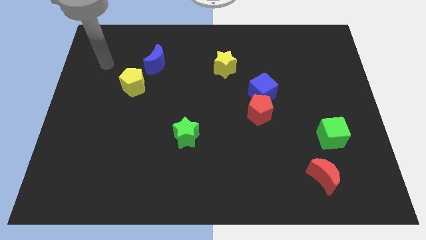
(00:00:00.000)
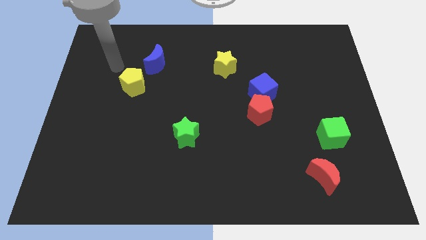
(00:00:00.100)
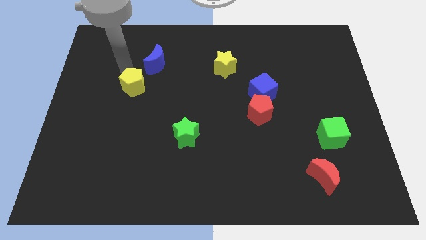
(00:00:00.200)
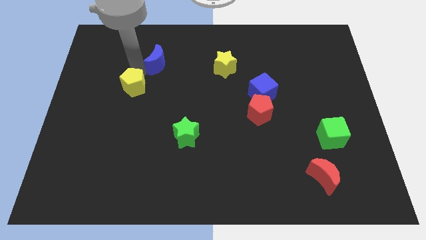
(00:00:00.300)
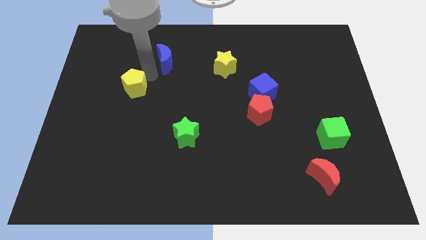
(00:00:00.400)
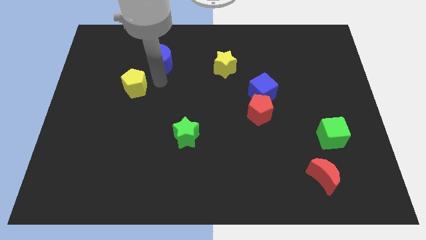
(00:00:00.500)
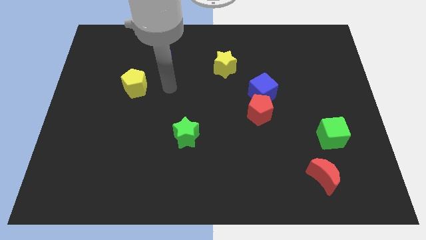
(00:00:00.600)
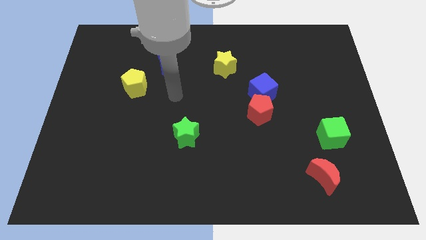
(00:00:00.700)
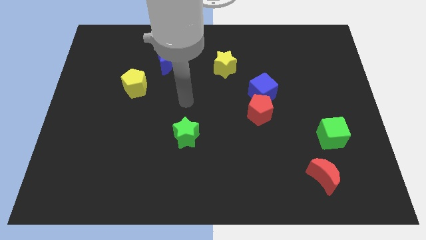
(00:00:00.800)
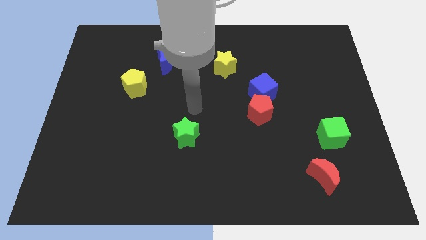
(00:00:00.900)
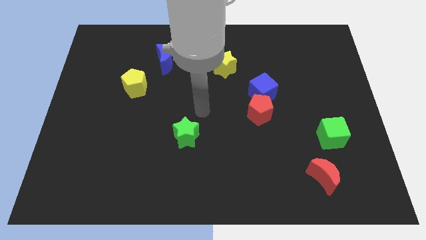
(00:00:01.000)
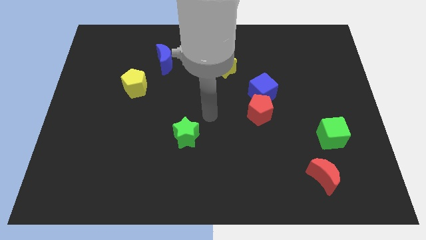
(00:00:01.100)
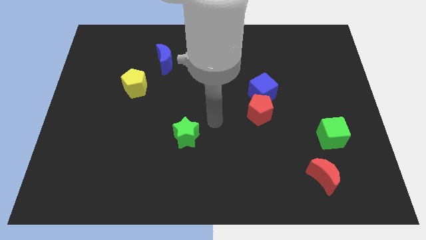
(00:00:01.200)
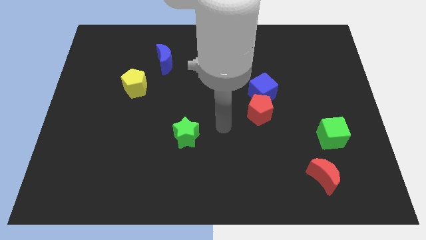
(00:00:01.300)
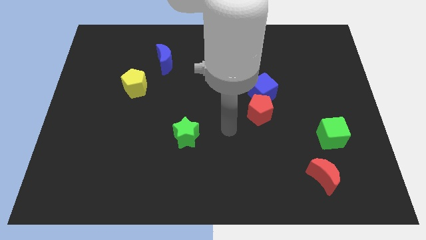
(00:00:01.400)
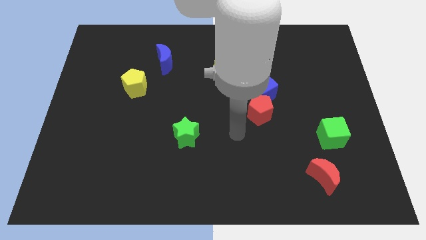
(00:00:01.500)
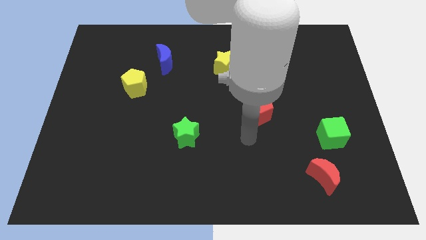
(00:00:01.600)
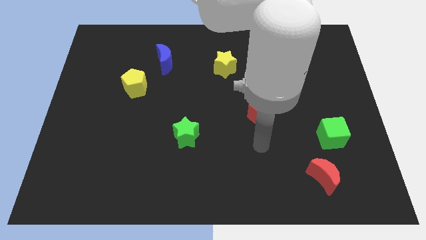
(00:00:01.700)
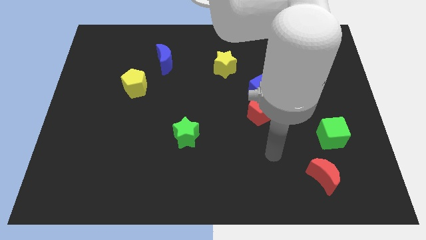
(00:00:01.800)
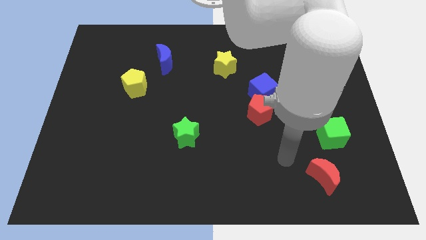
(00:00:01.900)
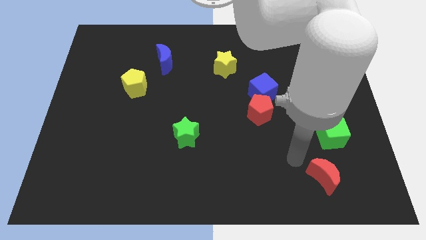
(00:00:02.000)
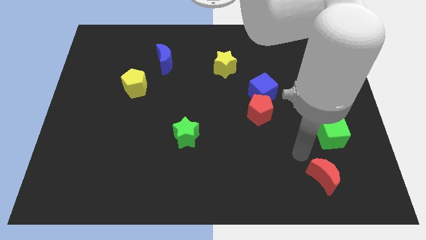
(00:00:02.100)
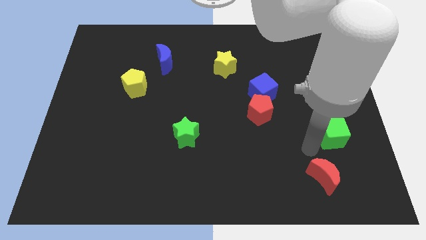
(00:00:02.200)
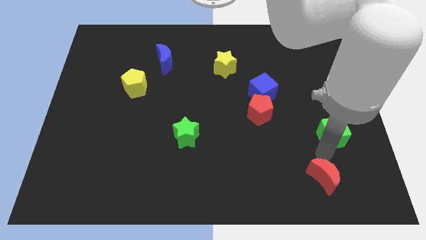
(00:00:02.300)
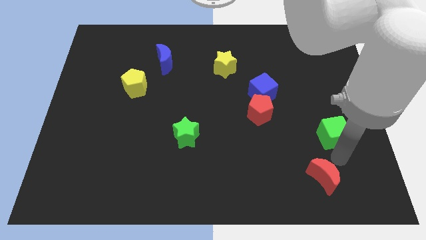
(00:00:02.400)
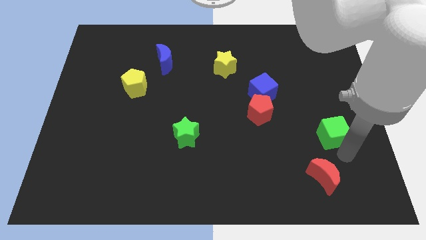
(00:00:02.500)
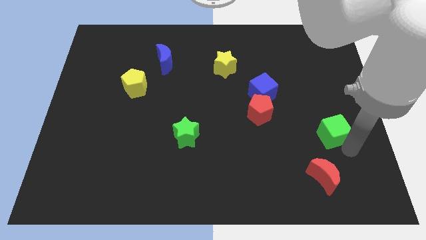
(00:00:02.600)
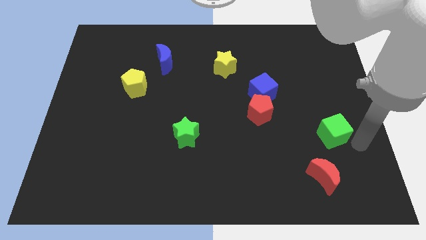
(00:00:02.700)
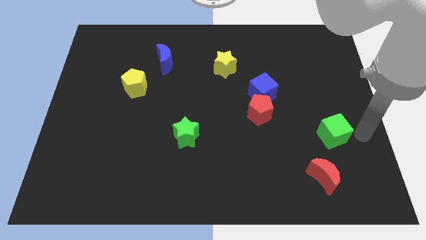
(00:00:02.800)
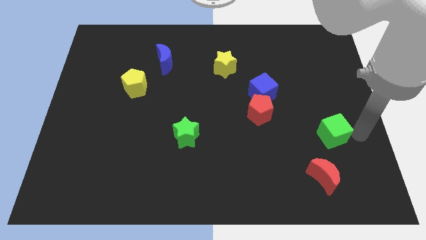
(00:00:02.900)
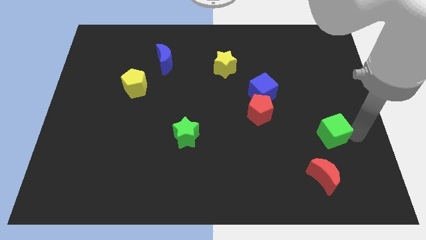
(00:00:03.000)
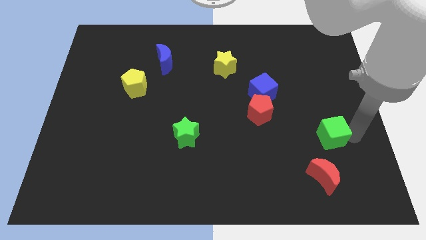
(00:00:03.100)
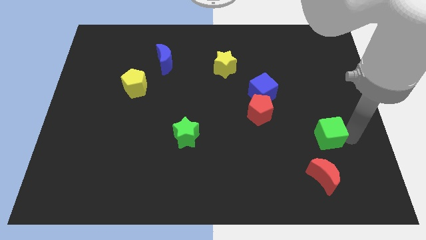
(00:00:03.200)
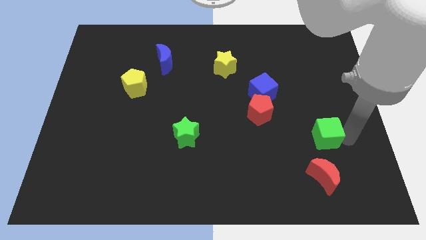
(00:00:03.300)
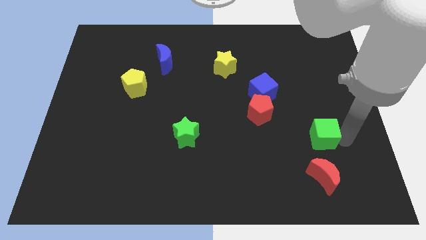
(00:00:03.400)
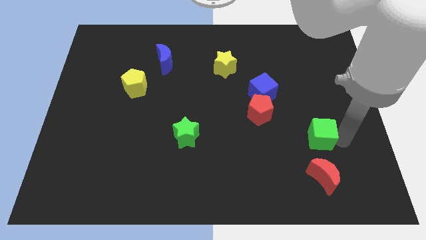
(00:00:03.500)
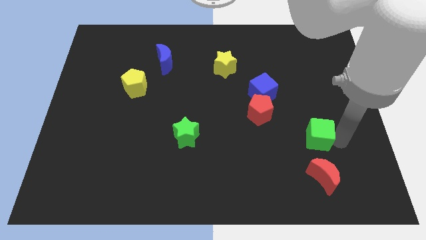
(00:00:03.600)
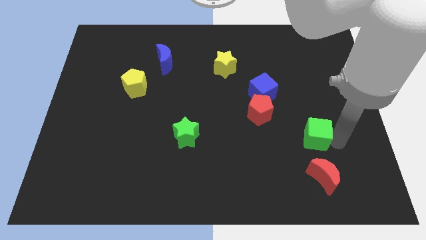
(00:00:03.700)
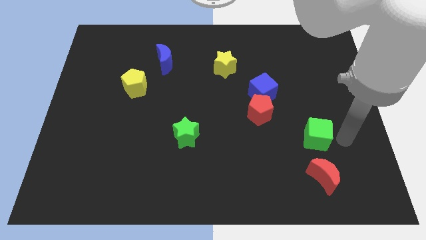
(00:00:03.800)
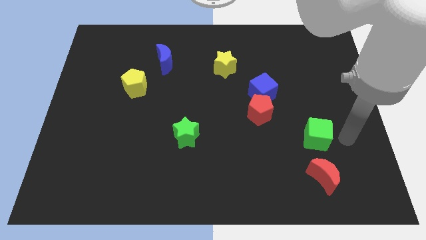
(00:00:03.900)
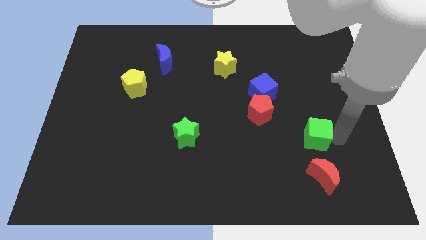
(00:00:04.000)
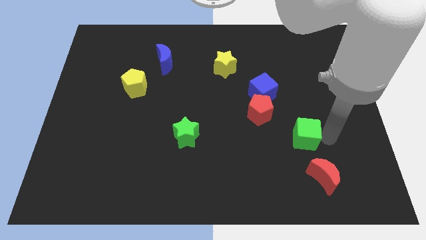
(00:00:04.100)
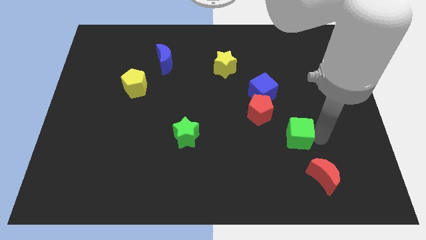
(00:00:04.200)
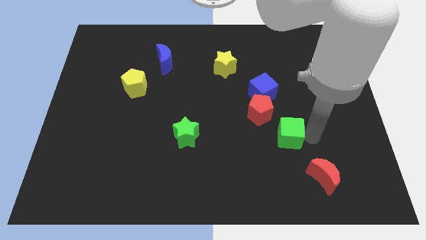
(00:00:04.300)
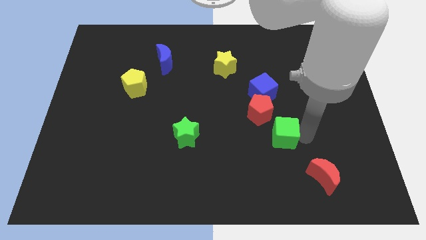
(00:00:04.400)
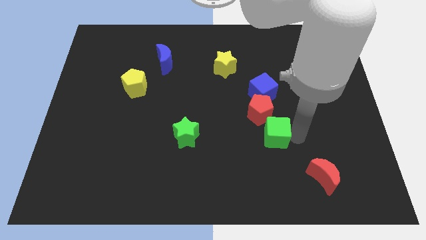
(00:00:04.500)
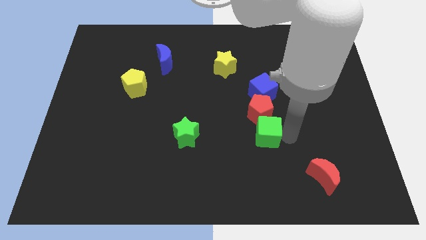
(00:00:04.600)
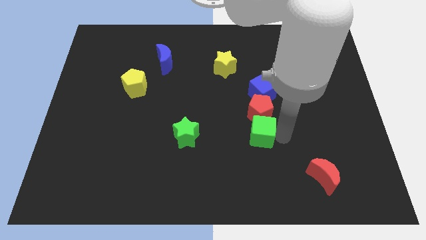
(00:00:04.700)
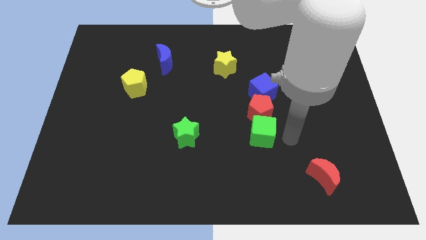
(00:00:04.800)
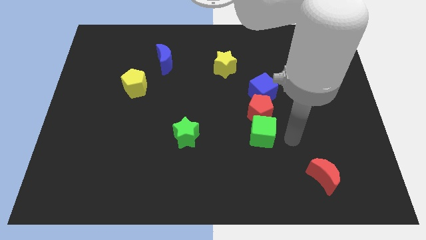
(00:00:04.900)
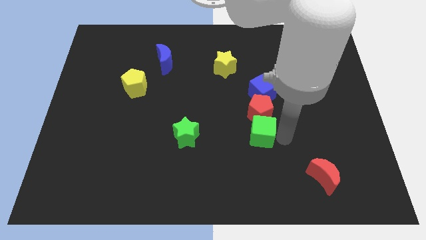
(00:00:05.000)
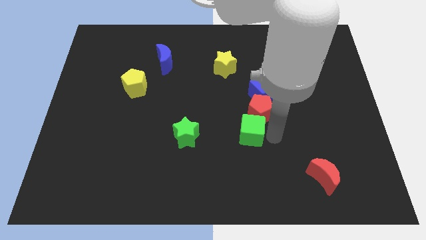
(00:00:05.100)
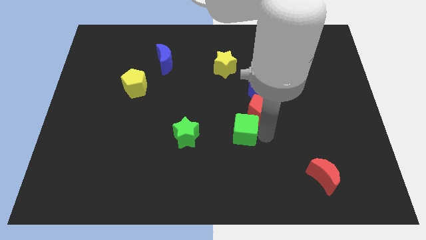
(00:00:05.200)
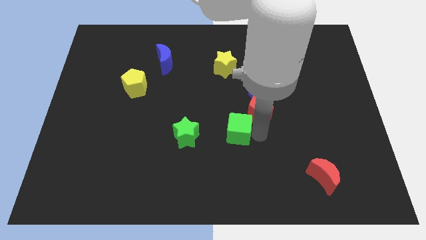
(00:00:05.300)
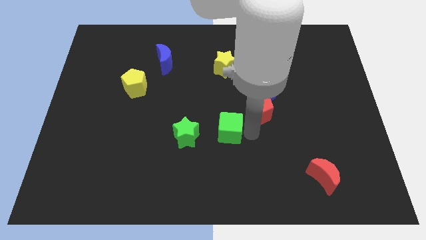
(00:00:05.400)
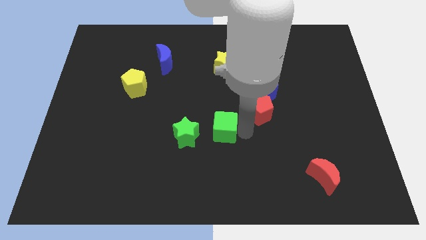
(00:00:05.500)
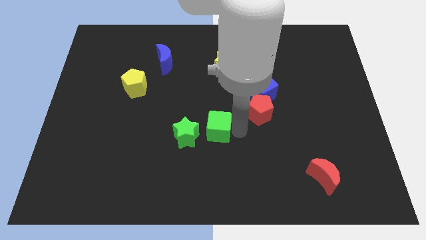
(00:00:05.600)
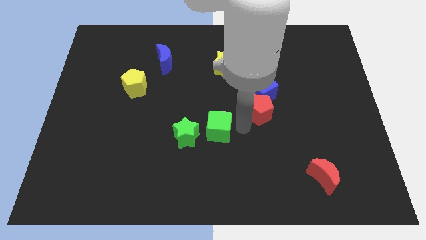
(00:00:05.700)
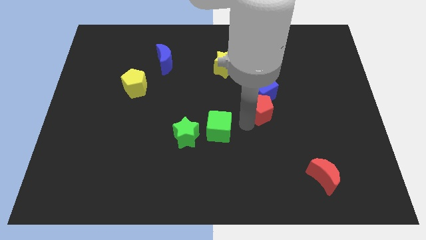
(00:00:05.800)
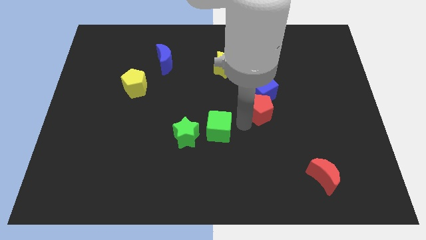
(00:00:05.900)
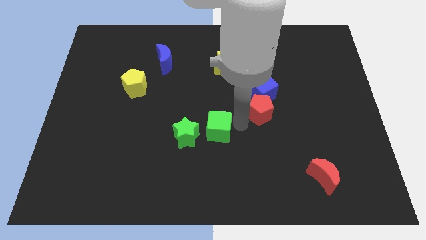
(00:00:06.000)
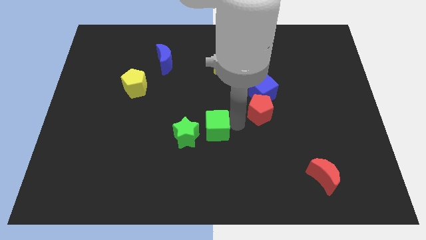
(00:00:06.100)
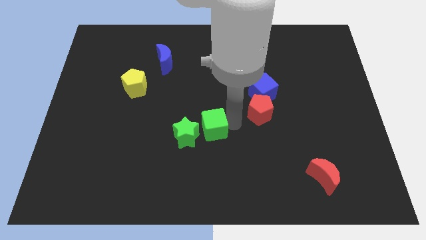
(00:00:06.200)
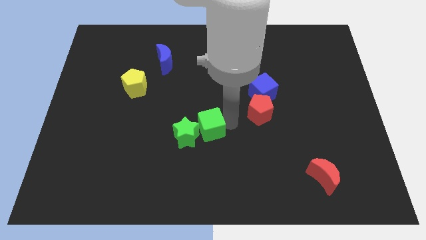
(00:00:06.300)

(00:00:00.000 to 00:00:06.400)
push the green cube to the green star

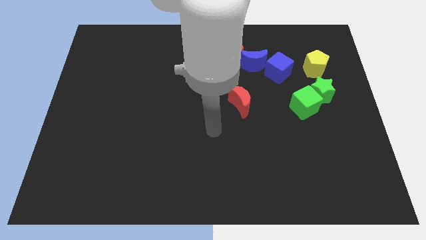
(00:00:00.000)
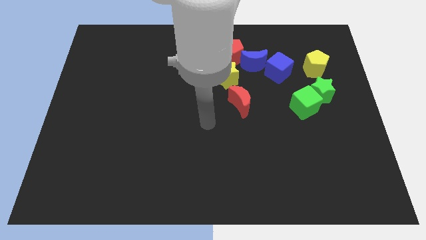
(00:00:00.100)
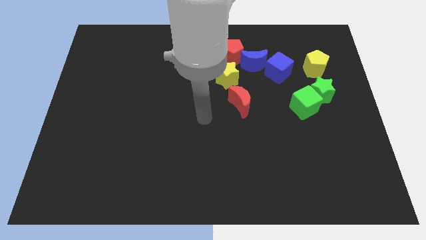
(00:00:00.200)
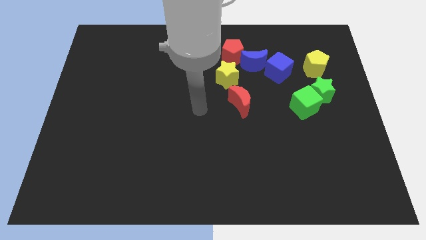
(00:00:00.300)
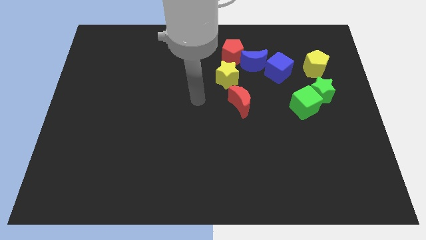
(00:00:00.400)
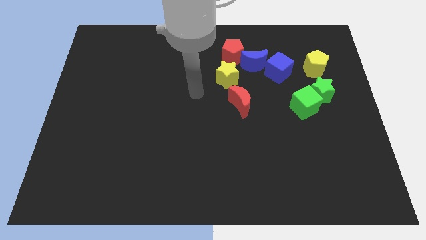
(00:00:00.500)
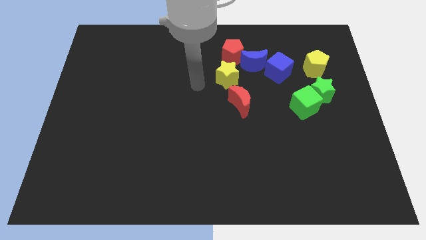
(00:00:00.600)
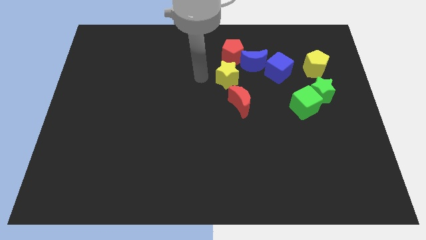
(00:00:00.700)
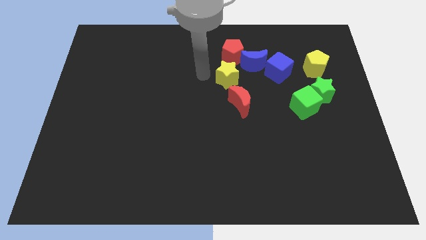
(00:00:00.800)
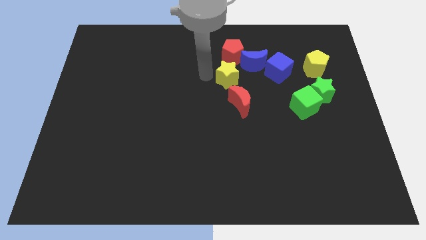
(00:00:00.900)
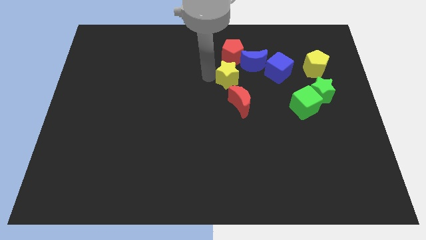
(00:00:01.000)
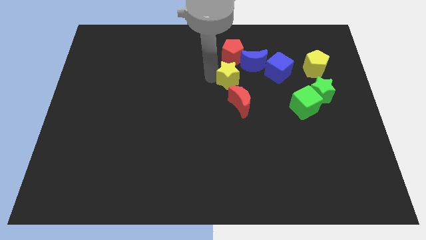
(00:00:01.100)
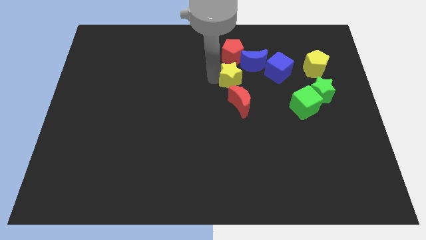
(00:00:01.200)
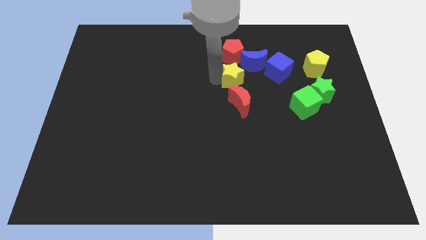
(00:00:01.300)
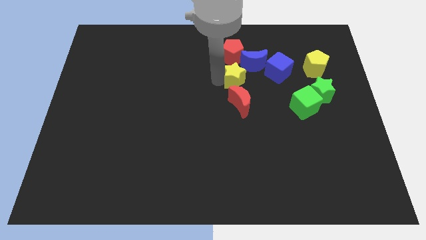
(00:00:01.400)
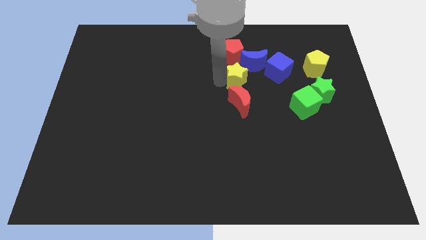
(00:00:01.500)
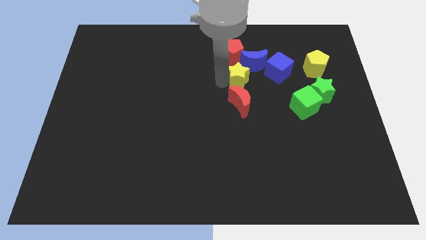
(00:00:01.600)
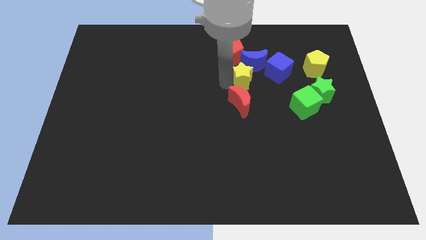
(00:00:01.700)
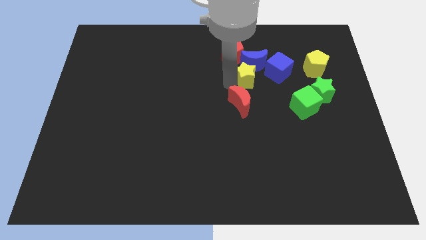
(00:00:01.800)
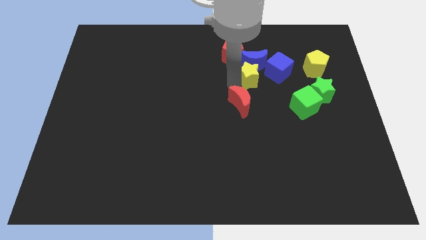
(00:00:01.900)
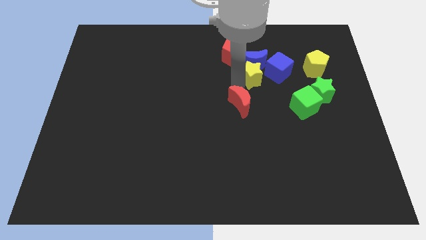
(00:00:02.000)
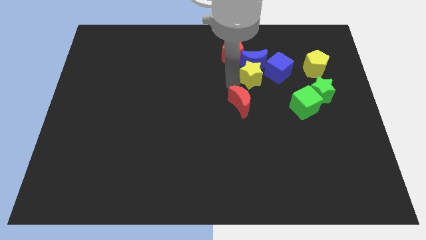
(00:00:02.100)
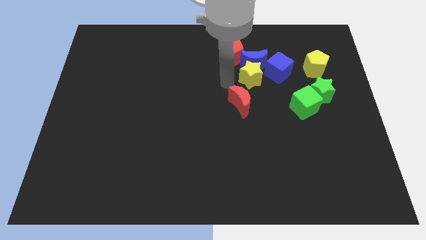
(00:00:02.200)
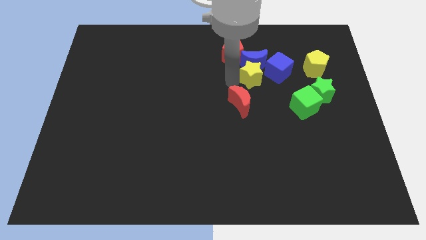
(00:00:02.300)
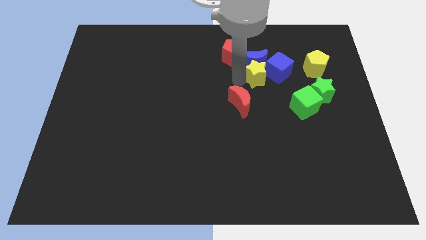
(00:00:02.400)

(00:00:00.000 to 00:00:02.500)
push the yellow star towards the blue cube
